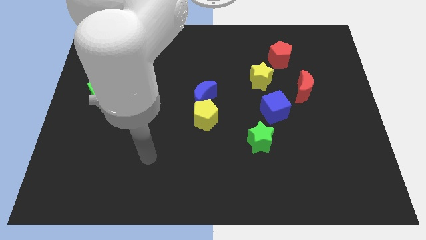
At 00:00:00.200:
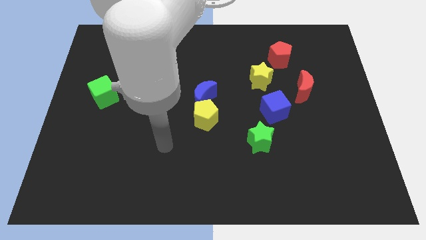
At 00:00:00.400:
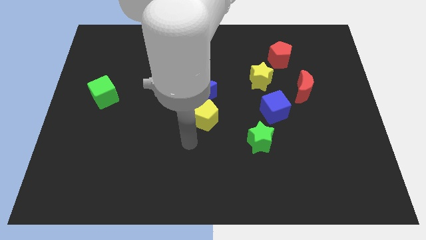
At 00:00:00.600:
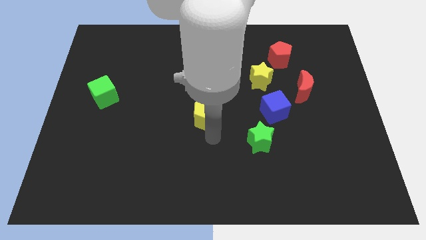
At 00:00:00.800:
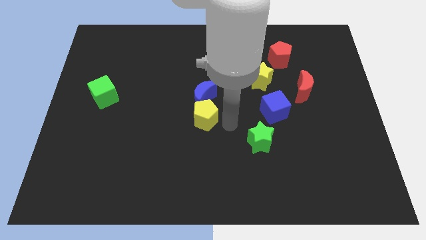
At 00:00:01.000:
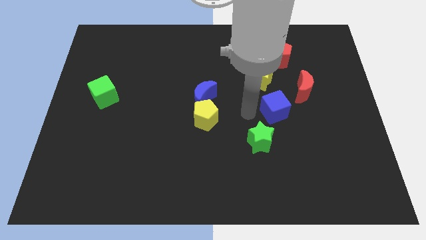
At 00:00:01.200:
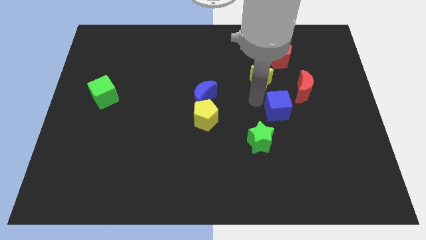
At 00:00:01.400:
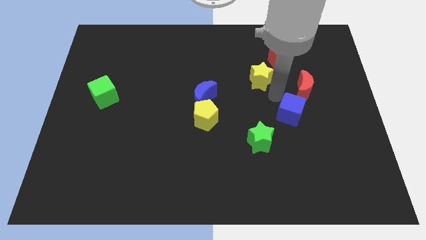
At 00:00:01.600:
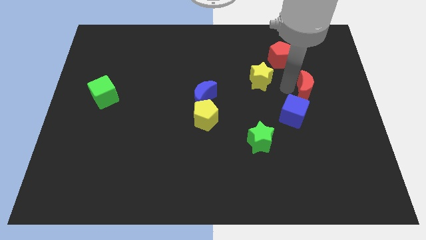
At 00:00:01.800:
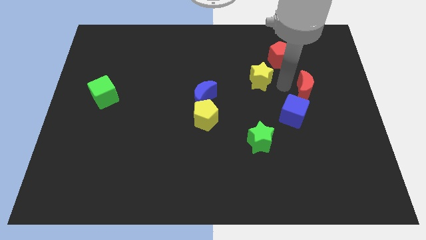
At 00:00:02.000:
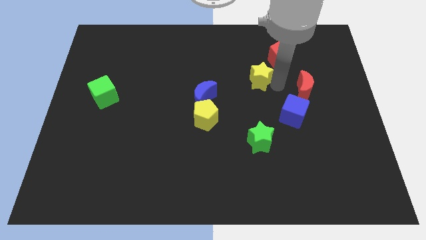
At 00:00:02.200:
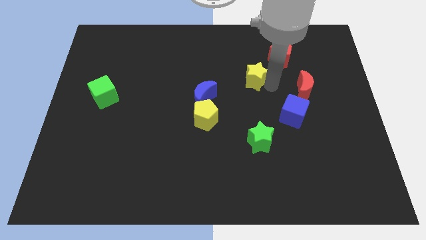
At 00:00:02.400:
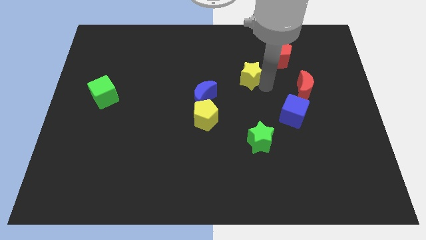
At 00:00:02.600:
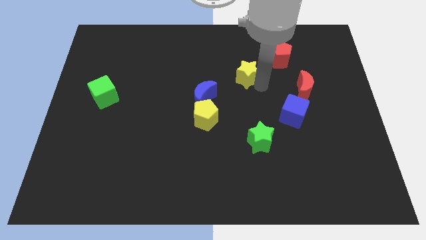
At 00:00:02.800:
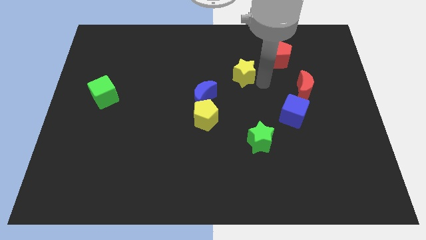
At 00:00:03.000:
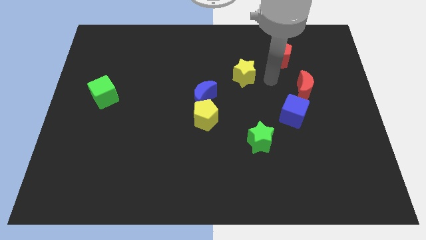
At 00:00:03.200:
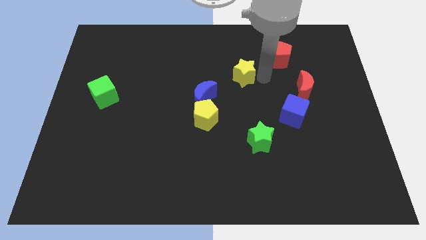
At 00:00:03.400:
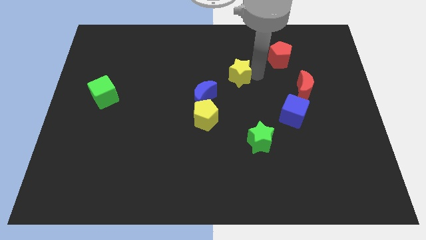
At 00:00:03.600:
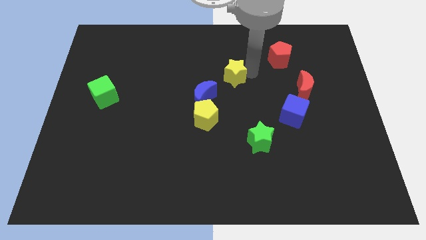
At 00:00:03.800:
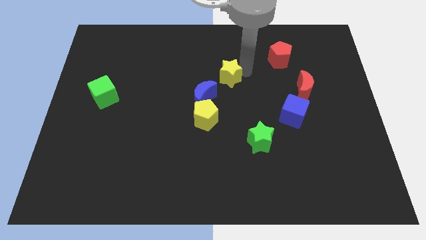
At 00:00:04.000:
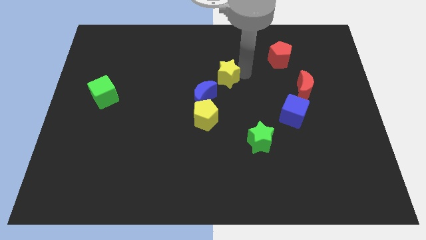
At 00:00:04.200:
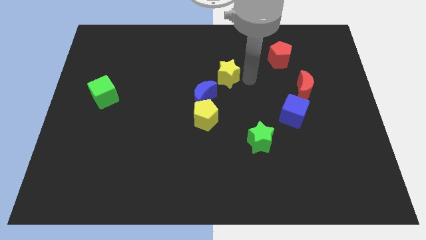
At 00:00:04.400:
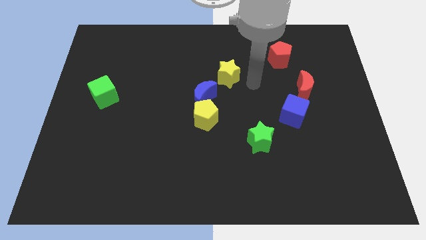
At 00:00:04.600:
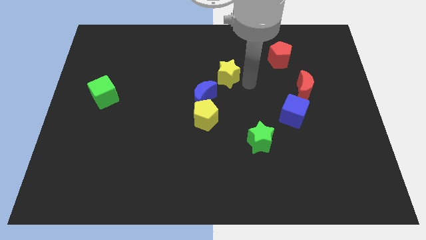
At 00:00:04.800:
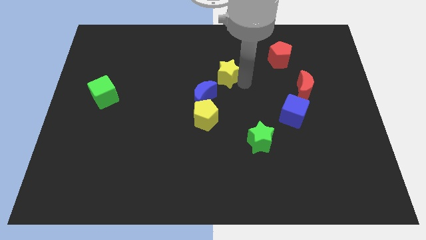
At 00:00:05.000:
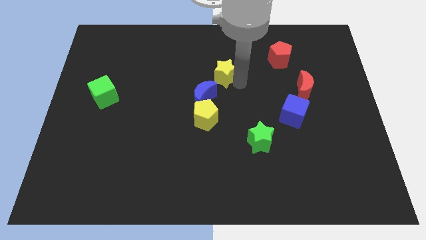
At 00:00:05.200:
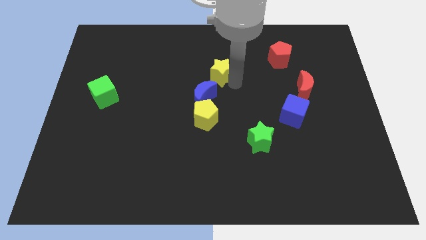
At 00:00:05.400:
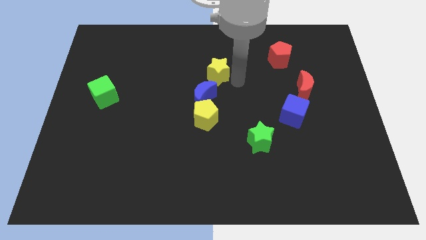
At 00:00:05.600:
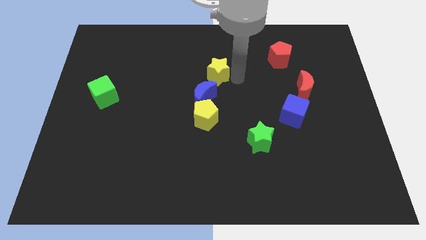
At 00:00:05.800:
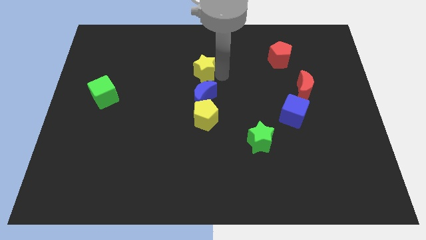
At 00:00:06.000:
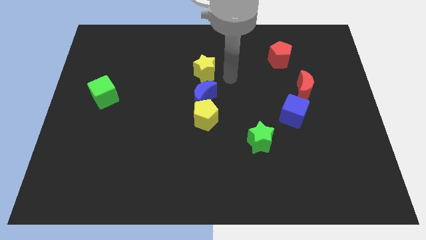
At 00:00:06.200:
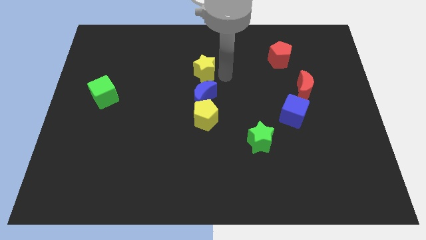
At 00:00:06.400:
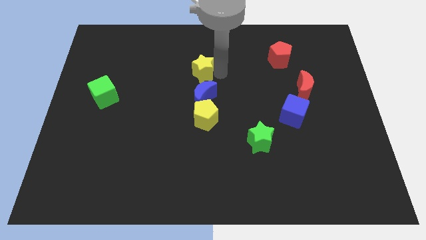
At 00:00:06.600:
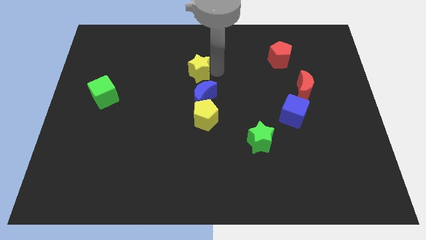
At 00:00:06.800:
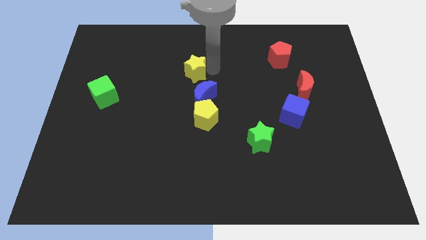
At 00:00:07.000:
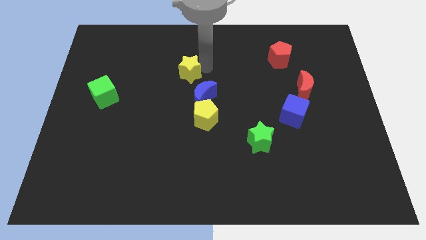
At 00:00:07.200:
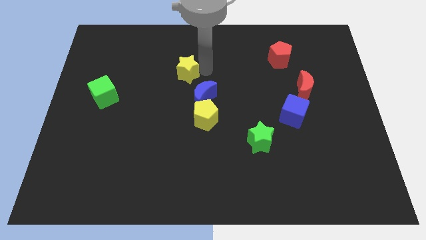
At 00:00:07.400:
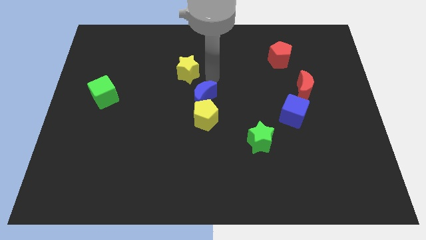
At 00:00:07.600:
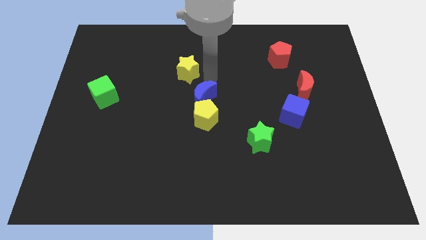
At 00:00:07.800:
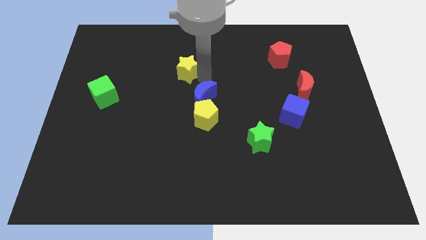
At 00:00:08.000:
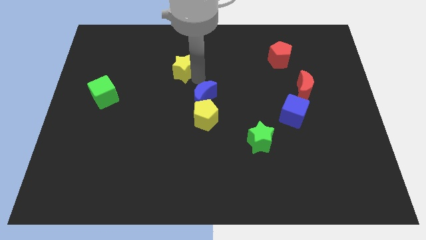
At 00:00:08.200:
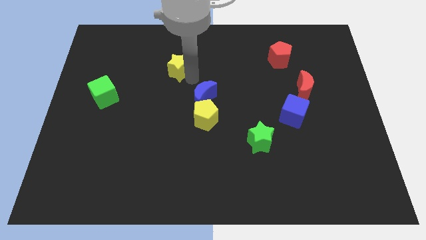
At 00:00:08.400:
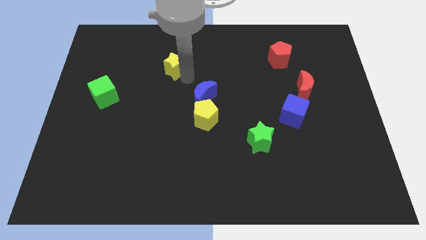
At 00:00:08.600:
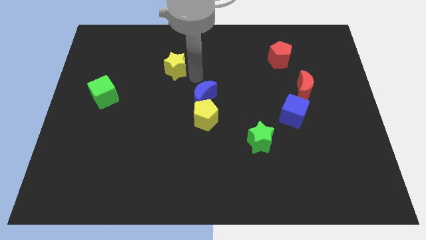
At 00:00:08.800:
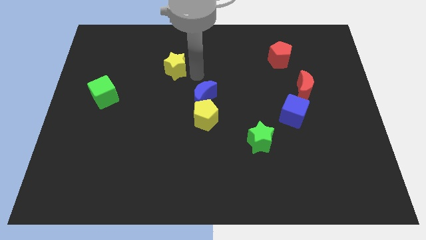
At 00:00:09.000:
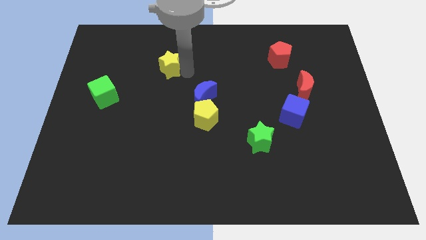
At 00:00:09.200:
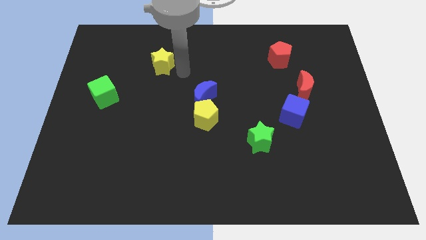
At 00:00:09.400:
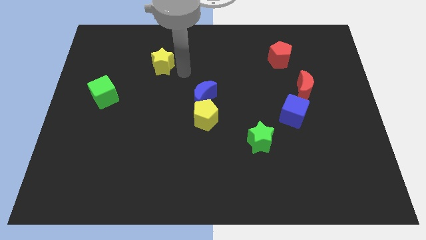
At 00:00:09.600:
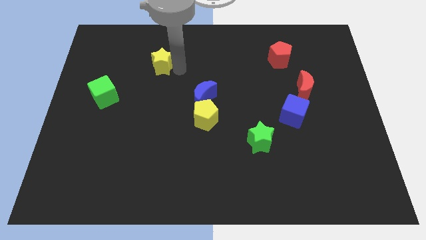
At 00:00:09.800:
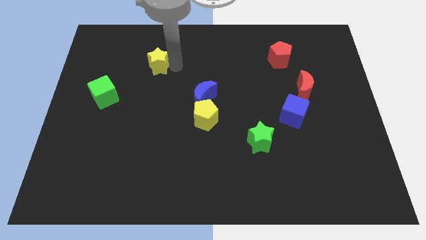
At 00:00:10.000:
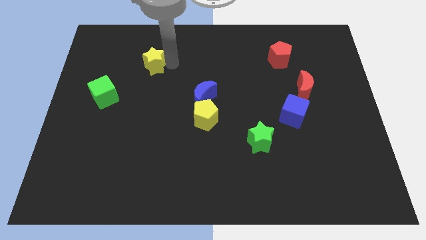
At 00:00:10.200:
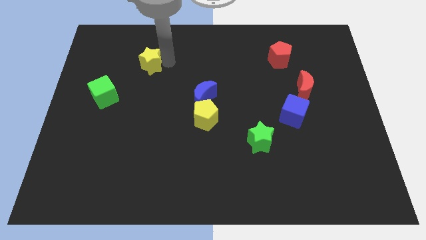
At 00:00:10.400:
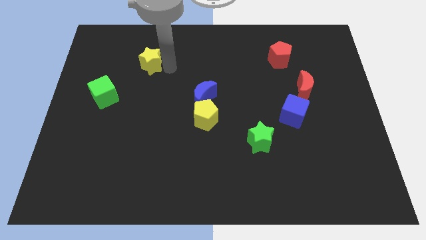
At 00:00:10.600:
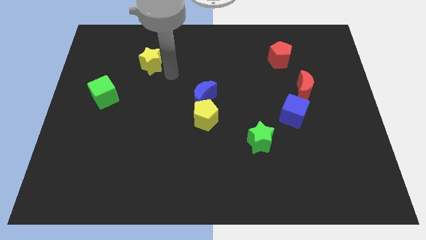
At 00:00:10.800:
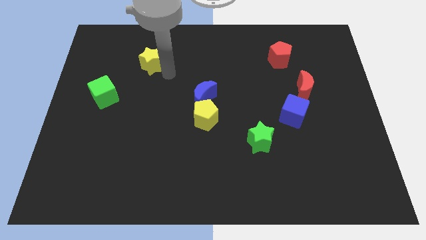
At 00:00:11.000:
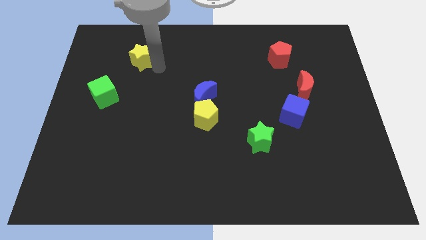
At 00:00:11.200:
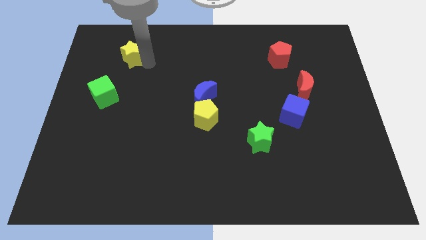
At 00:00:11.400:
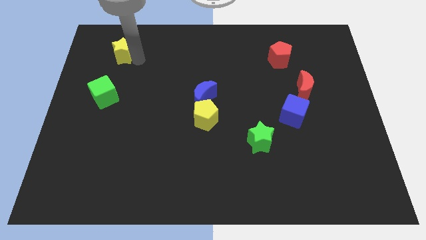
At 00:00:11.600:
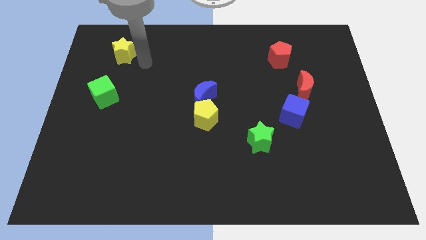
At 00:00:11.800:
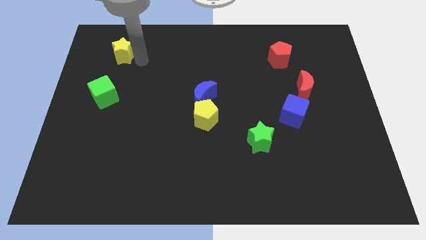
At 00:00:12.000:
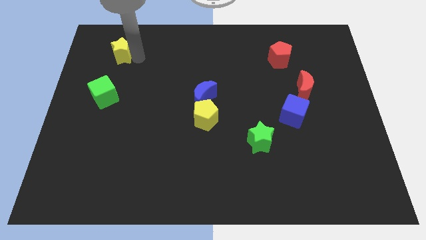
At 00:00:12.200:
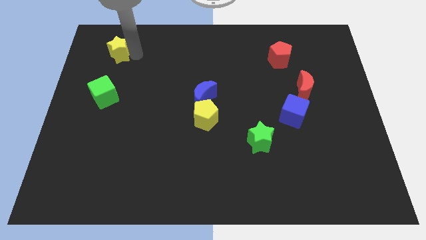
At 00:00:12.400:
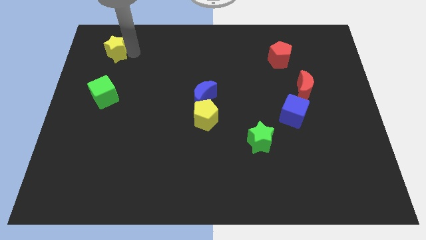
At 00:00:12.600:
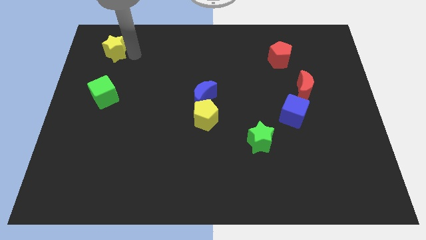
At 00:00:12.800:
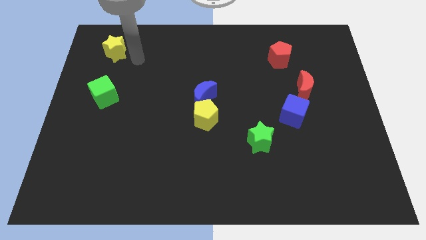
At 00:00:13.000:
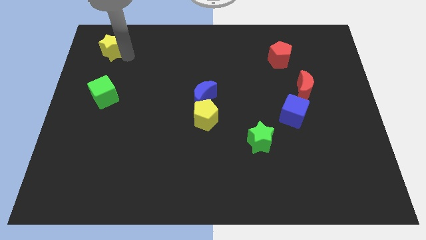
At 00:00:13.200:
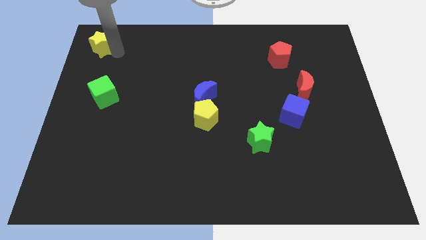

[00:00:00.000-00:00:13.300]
put the yellow star to the top left
